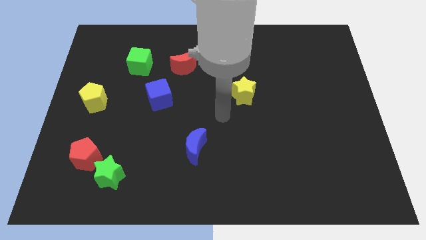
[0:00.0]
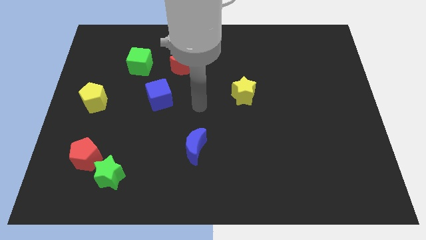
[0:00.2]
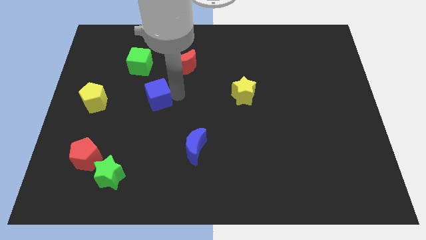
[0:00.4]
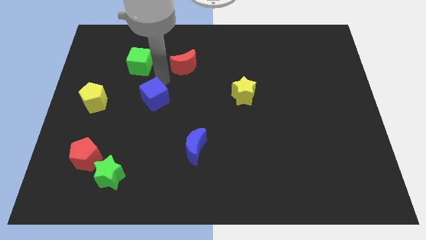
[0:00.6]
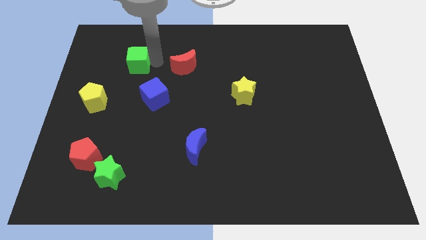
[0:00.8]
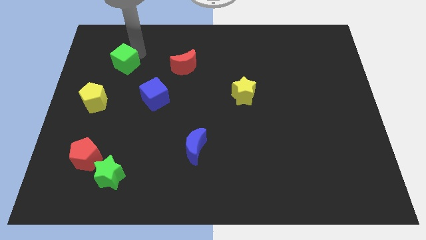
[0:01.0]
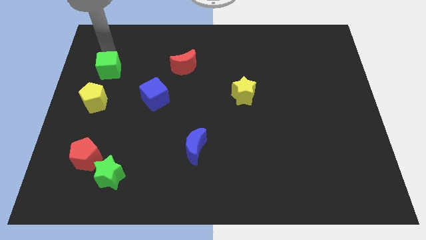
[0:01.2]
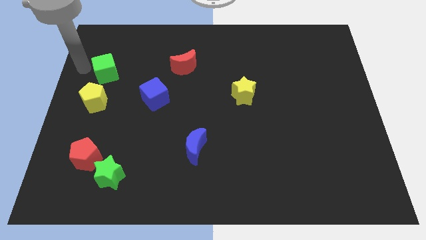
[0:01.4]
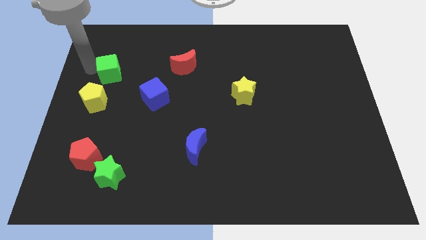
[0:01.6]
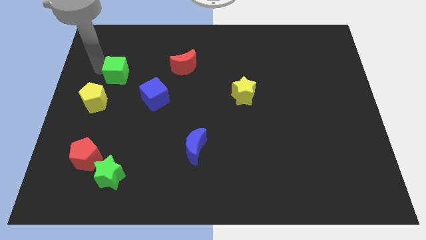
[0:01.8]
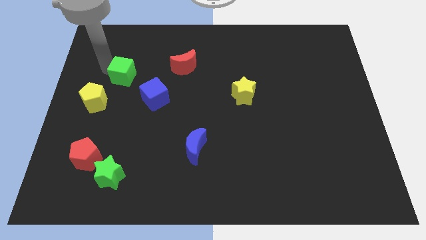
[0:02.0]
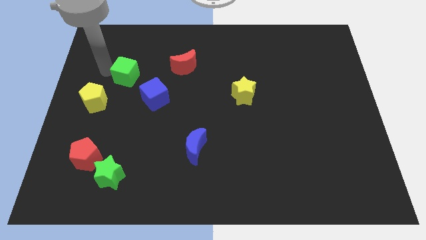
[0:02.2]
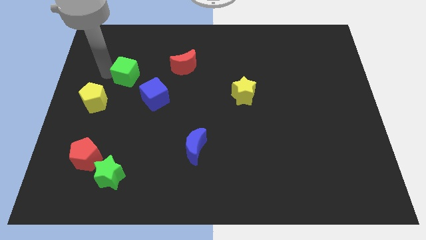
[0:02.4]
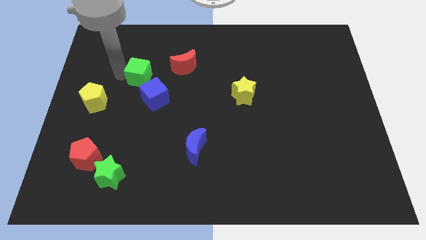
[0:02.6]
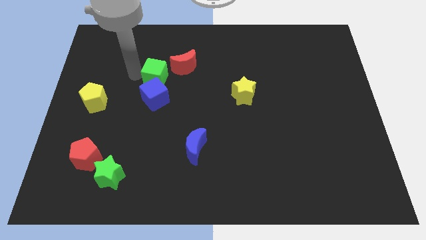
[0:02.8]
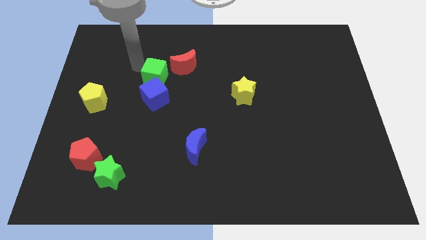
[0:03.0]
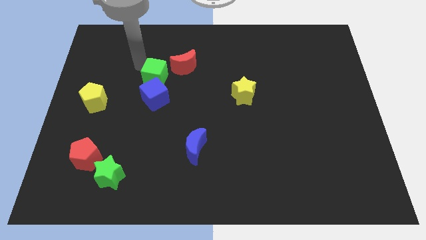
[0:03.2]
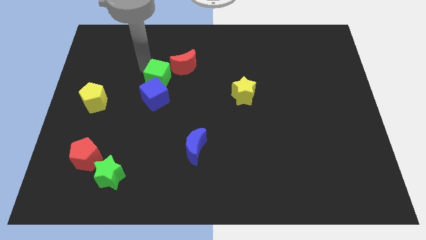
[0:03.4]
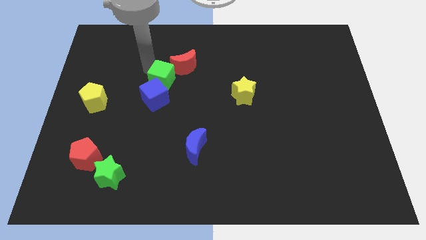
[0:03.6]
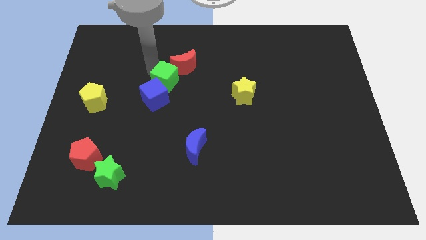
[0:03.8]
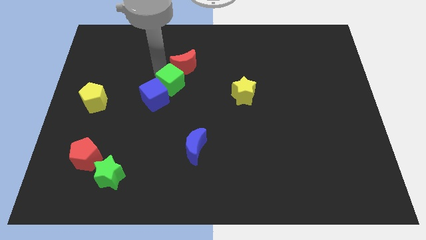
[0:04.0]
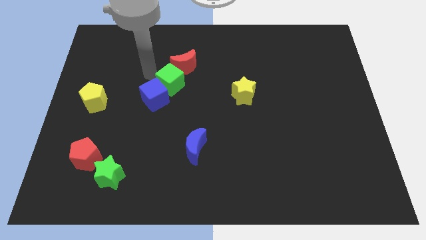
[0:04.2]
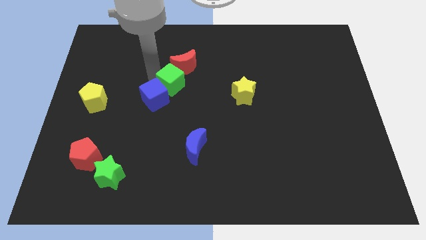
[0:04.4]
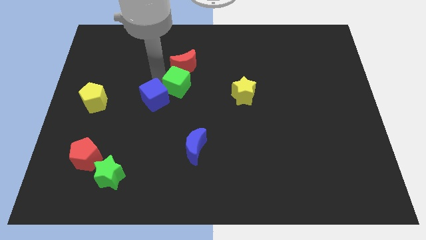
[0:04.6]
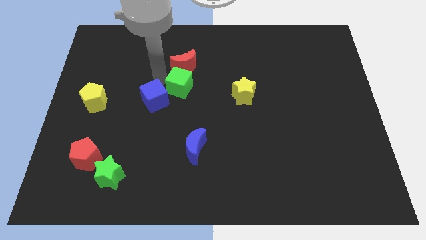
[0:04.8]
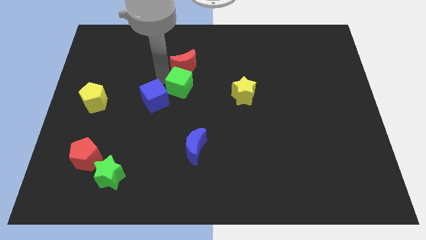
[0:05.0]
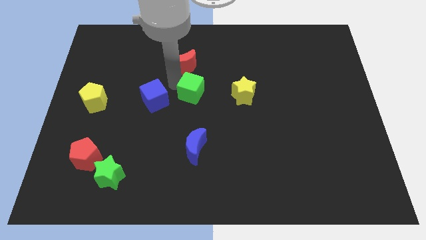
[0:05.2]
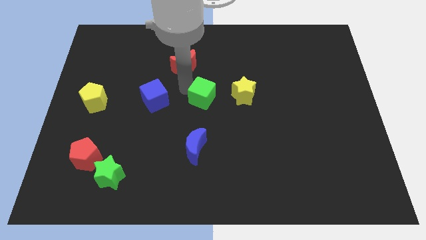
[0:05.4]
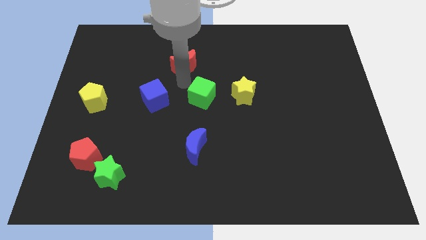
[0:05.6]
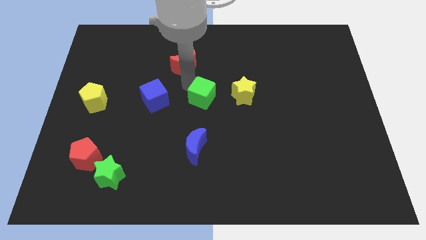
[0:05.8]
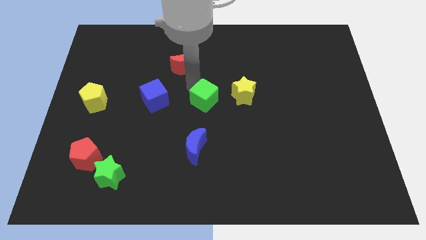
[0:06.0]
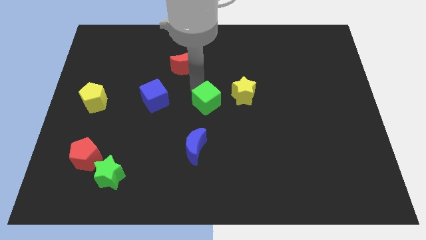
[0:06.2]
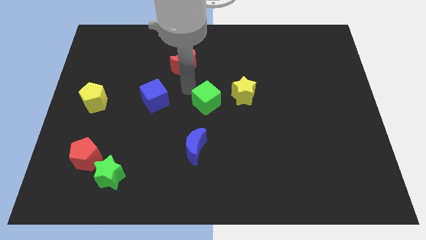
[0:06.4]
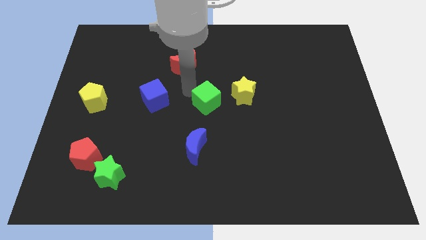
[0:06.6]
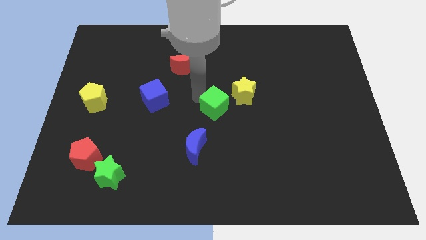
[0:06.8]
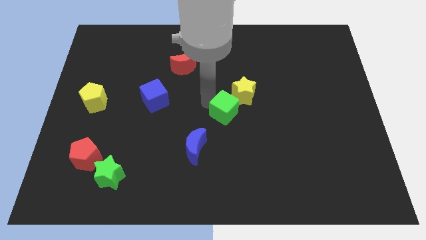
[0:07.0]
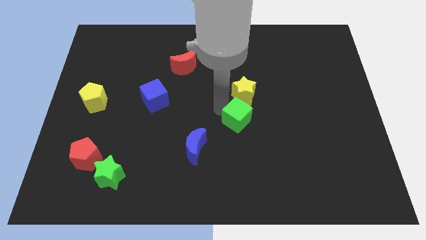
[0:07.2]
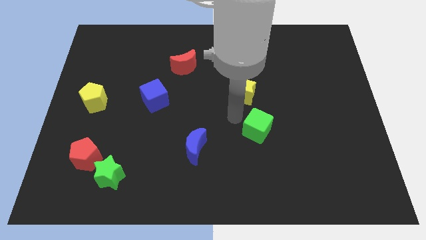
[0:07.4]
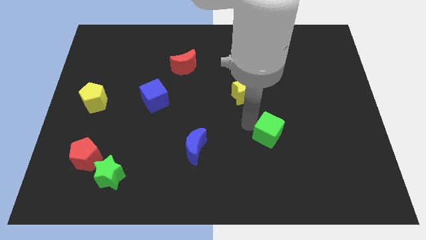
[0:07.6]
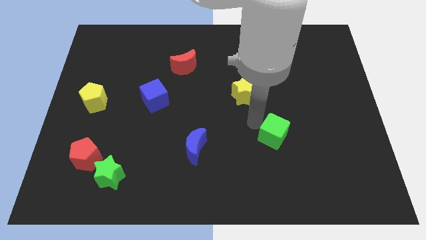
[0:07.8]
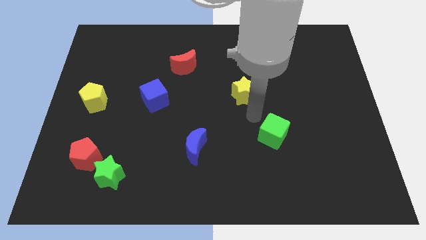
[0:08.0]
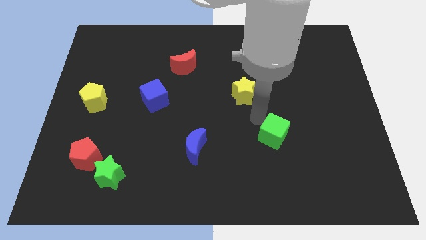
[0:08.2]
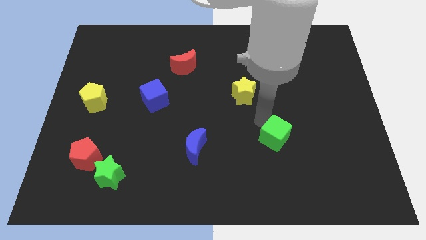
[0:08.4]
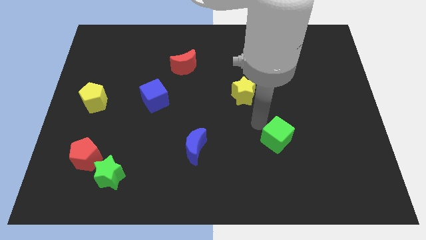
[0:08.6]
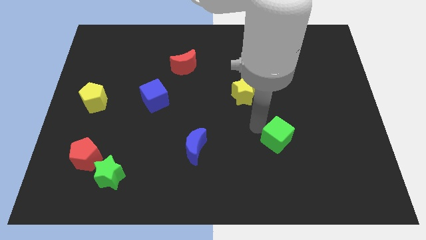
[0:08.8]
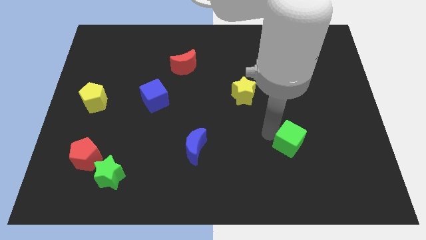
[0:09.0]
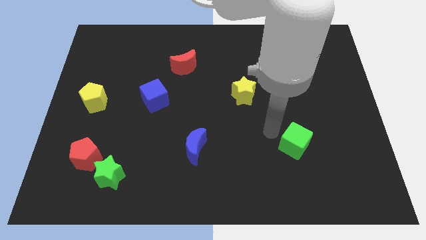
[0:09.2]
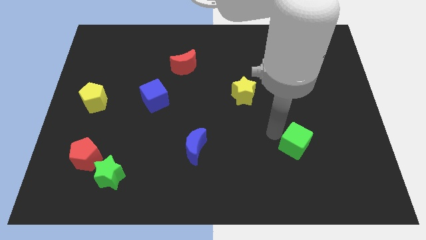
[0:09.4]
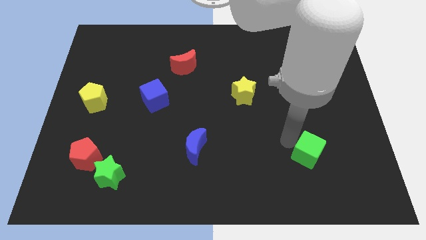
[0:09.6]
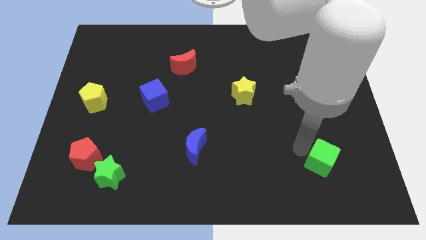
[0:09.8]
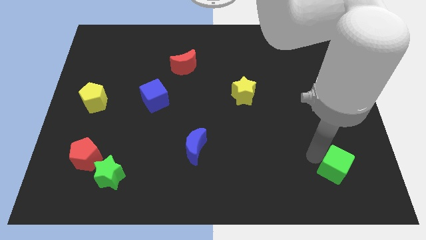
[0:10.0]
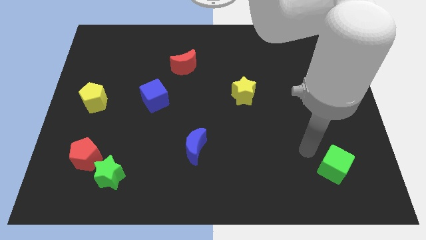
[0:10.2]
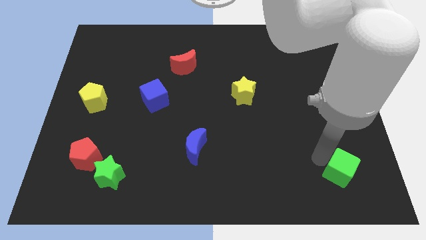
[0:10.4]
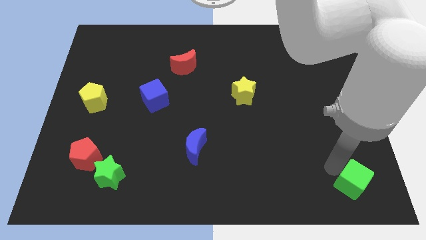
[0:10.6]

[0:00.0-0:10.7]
move the green cube to the bottom right

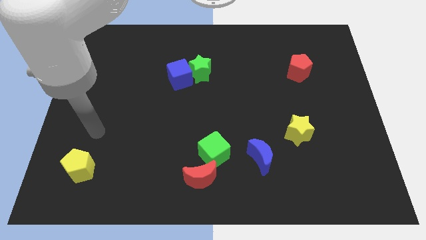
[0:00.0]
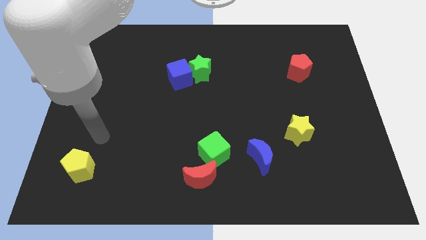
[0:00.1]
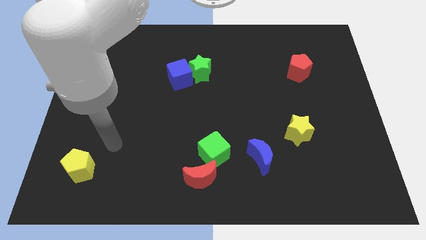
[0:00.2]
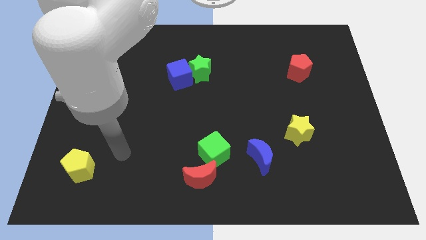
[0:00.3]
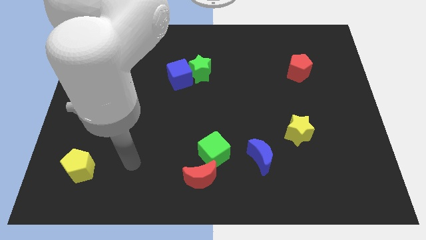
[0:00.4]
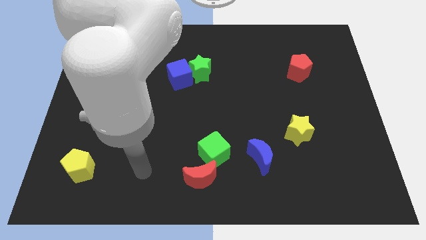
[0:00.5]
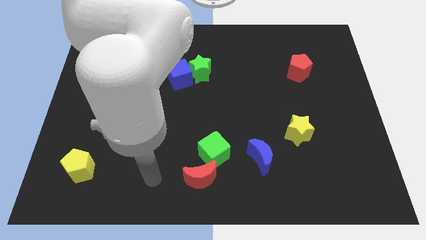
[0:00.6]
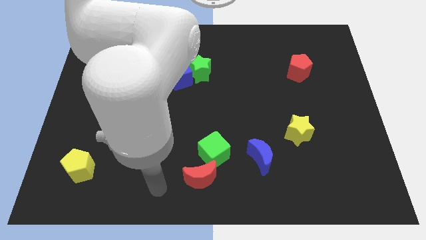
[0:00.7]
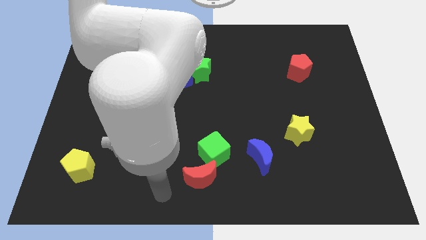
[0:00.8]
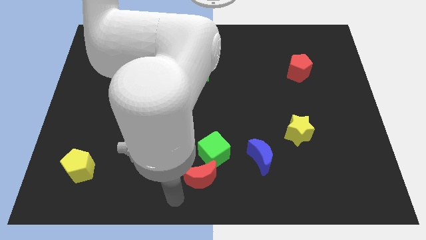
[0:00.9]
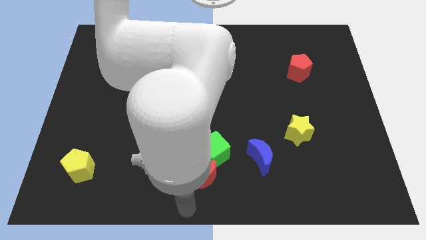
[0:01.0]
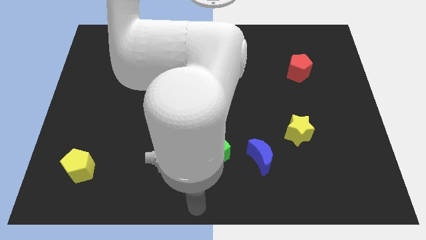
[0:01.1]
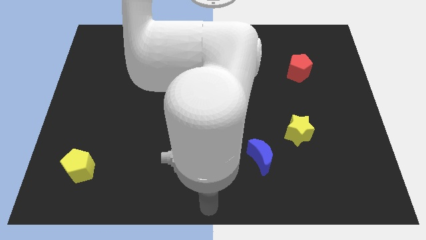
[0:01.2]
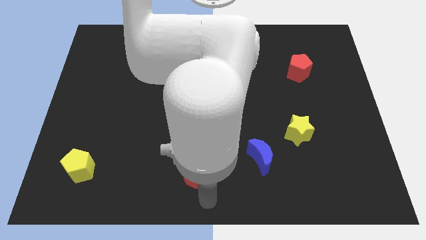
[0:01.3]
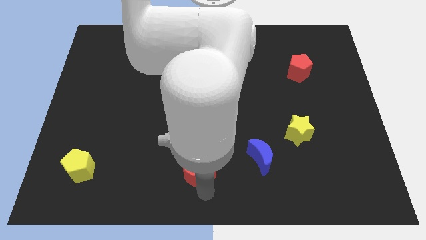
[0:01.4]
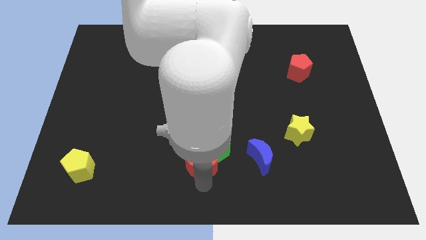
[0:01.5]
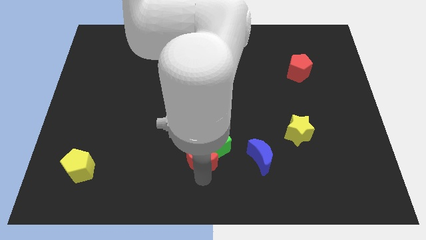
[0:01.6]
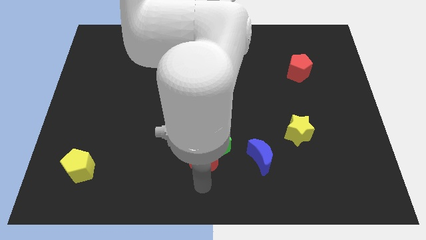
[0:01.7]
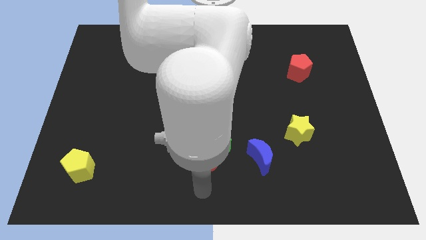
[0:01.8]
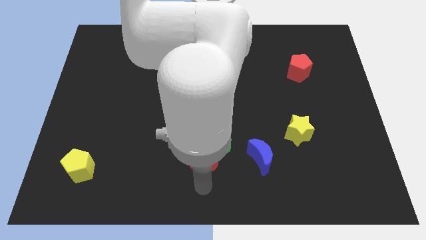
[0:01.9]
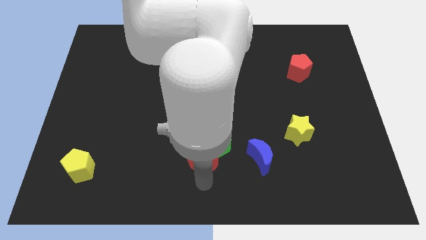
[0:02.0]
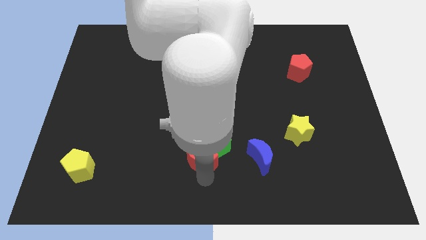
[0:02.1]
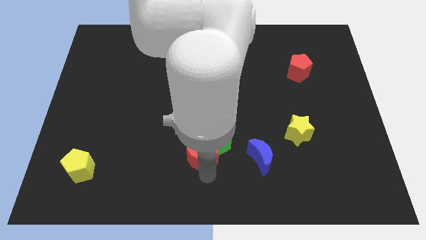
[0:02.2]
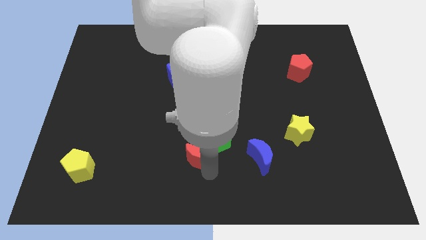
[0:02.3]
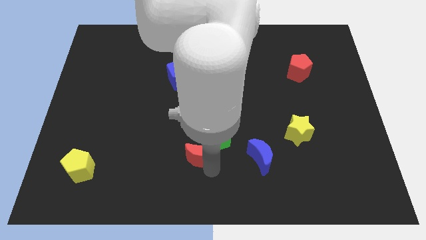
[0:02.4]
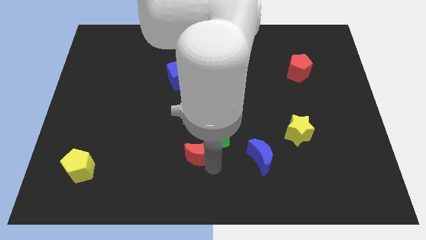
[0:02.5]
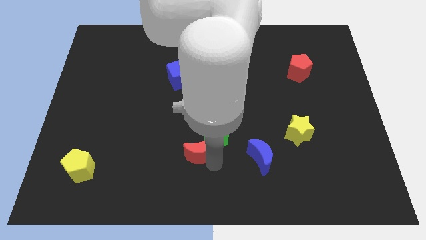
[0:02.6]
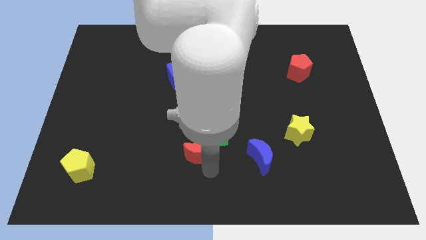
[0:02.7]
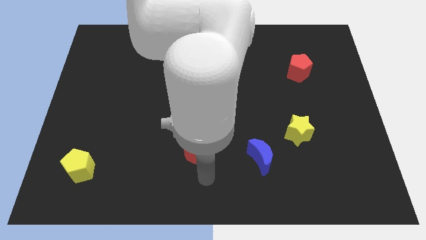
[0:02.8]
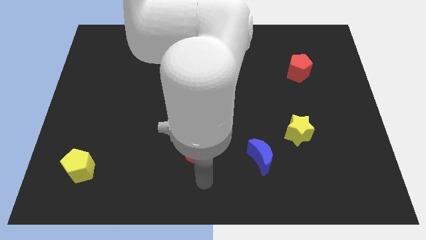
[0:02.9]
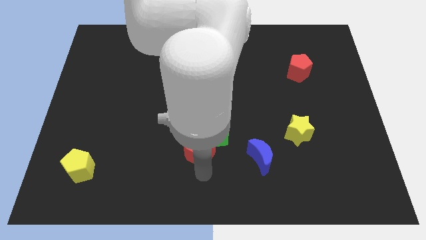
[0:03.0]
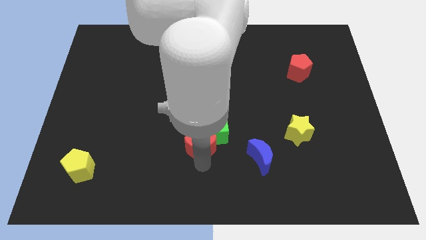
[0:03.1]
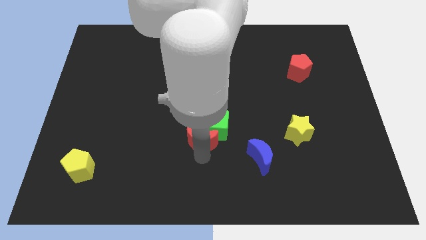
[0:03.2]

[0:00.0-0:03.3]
push the red moon to the middle
